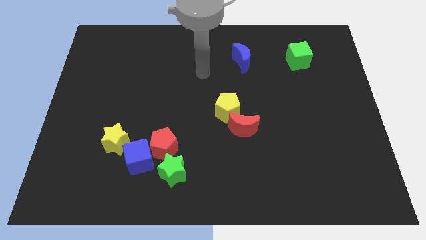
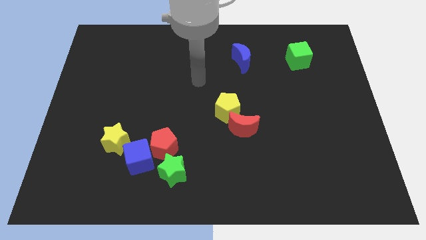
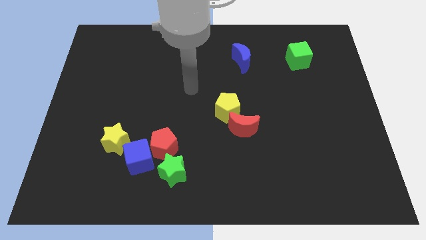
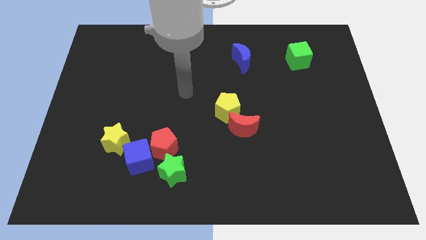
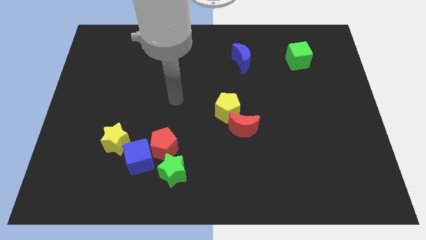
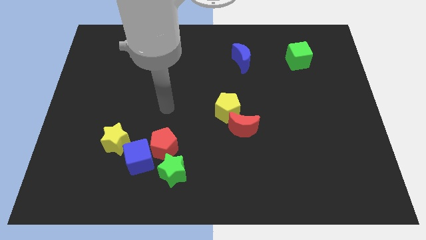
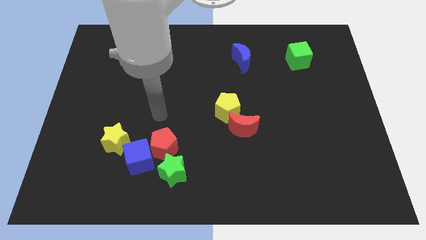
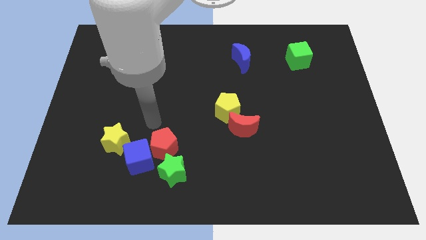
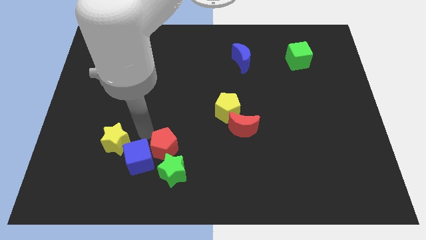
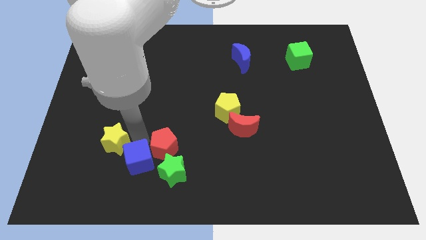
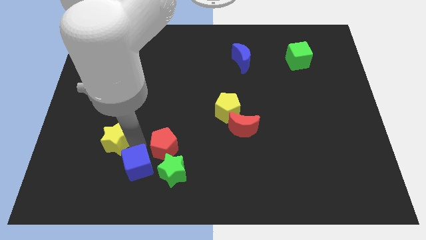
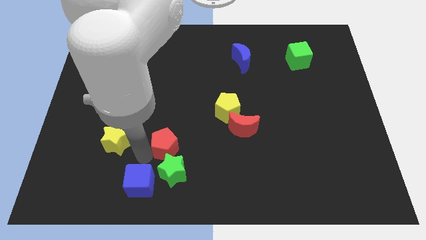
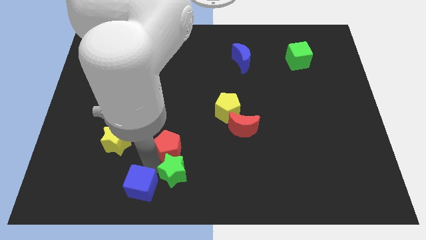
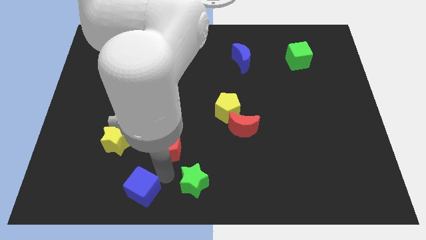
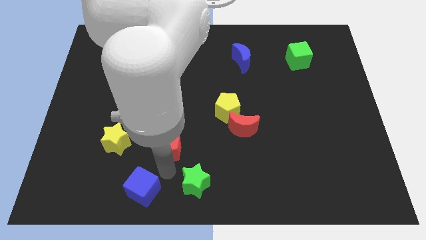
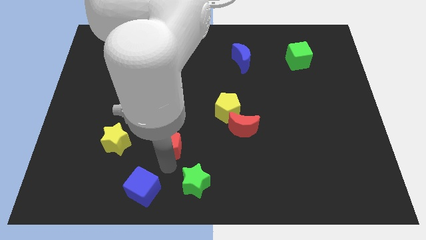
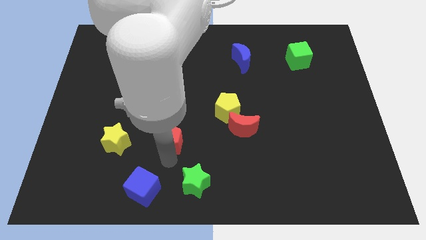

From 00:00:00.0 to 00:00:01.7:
separate the red pentagon from the blue cube and green star

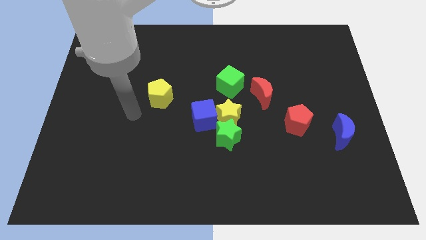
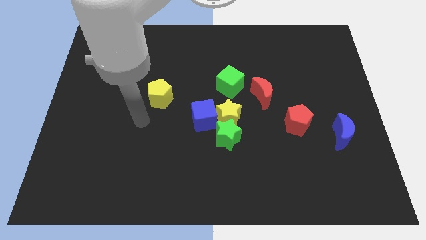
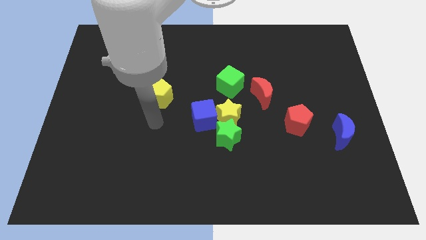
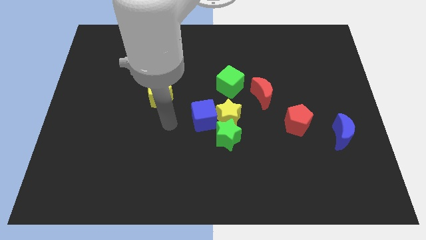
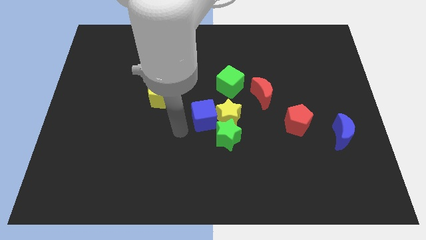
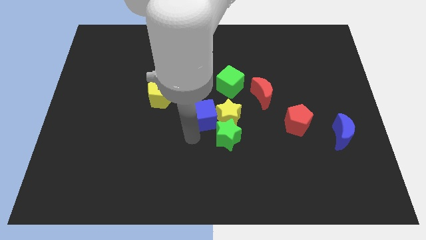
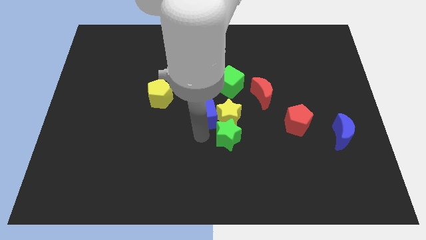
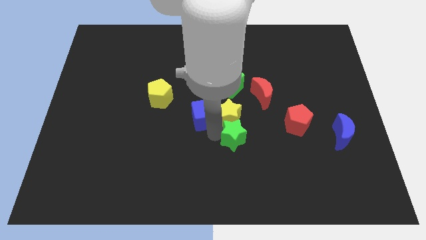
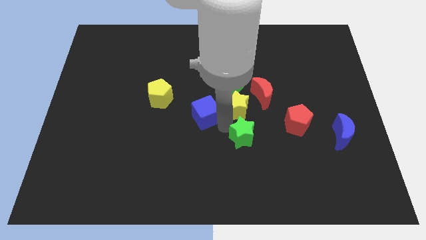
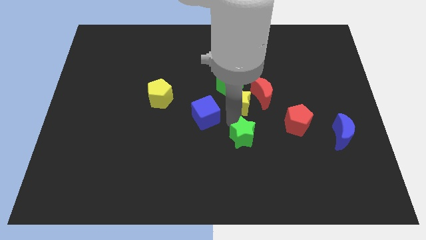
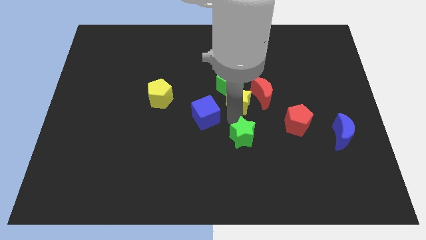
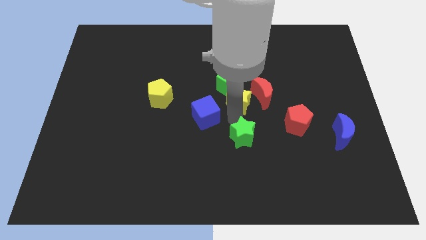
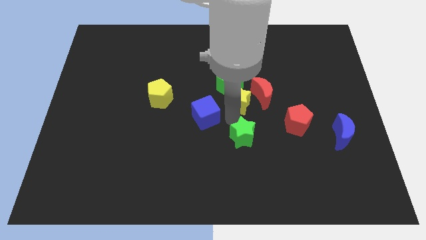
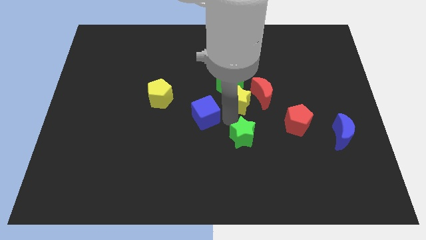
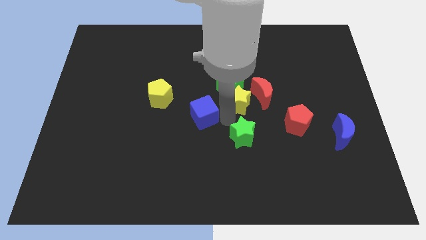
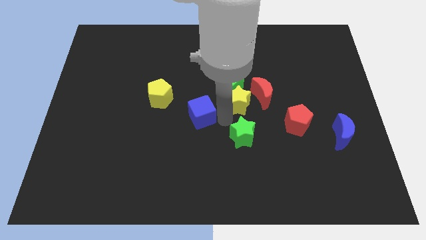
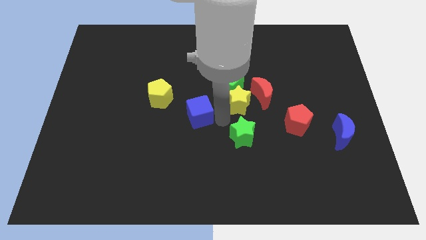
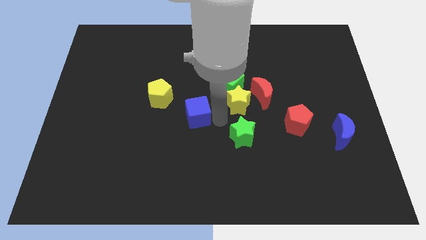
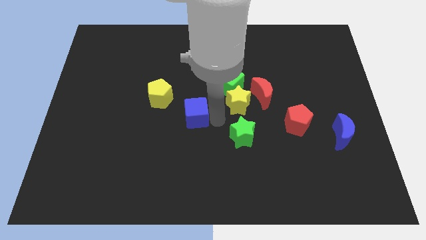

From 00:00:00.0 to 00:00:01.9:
separate the blue cube from the yellow star and green star

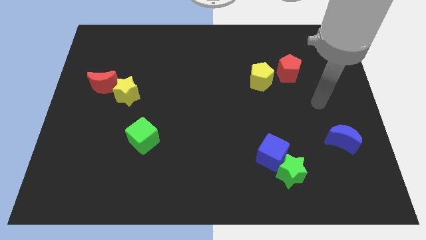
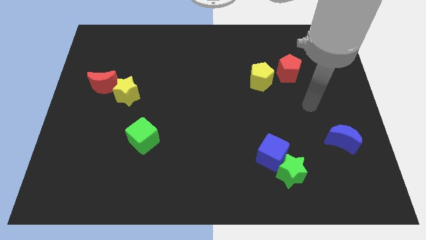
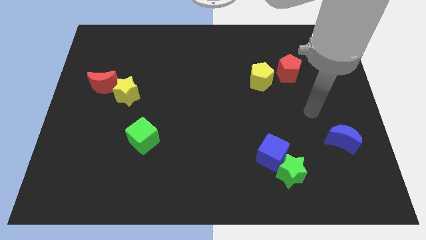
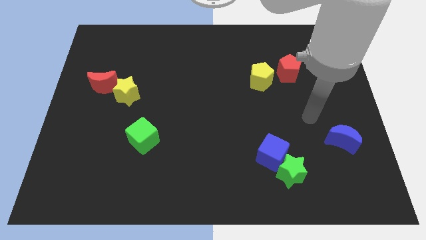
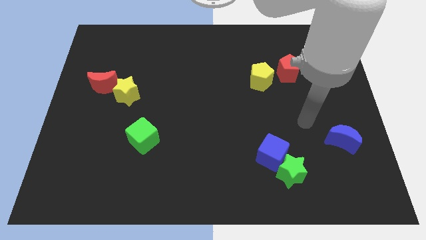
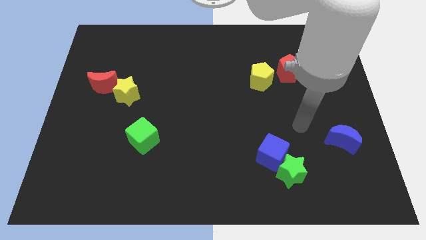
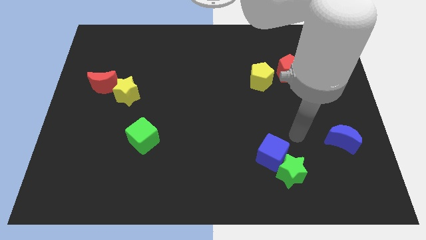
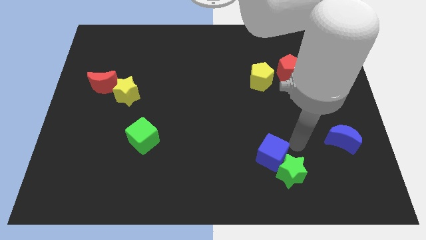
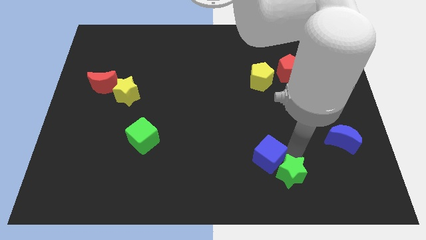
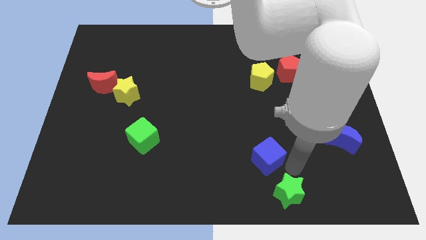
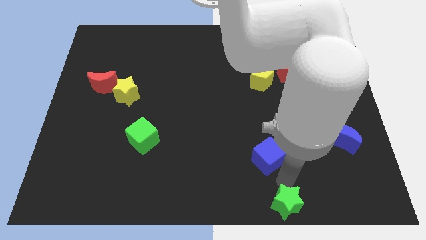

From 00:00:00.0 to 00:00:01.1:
pull the blue cube apart from the green star

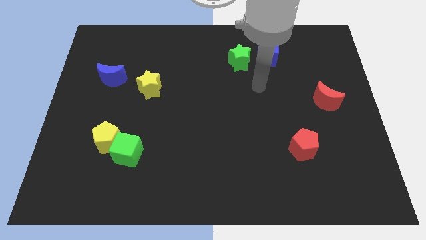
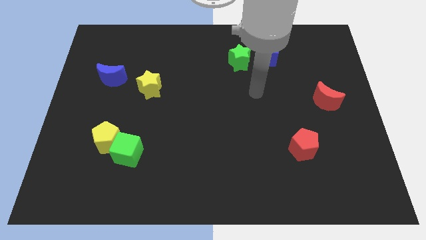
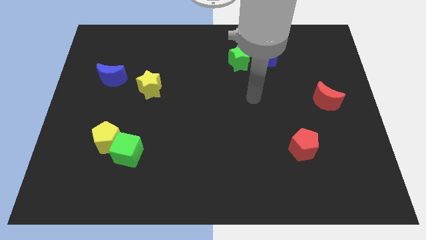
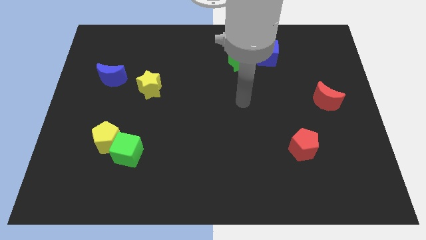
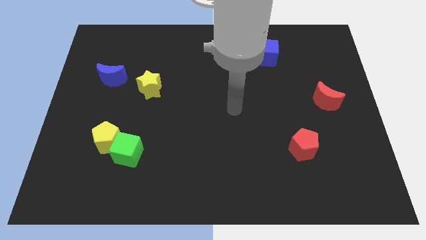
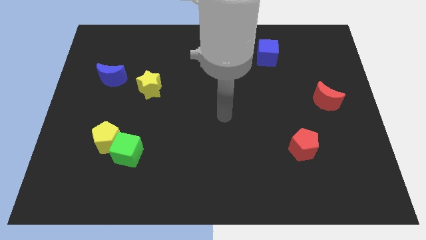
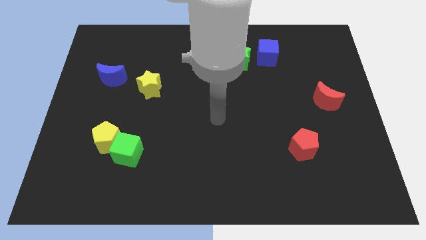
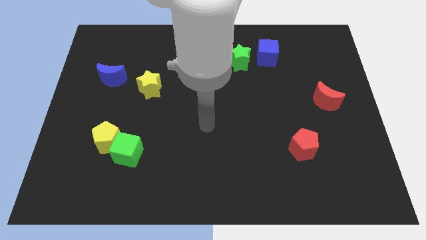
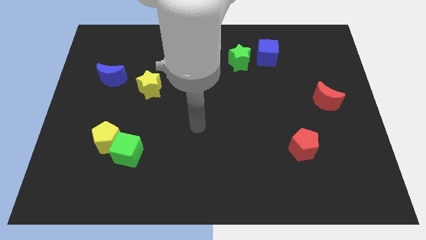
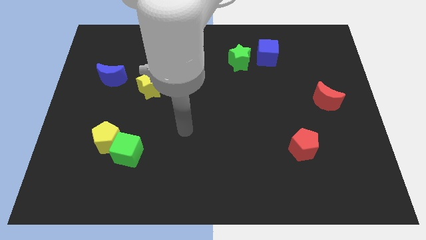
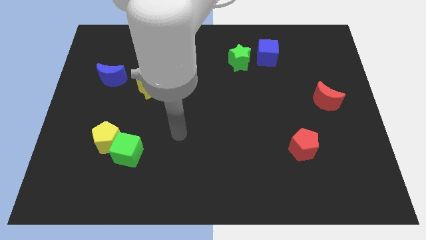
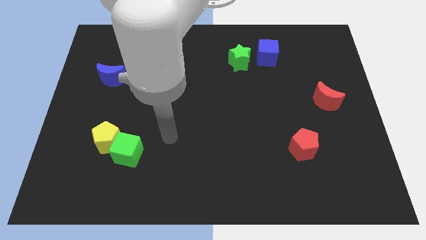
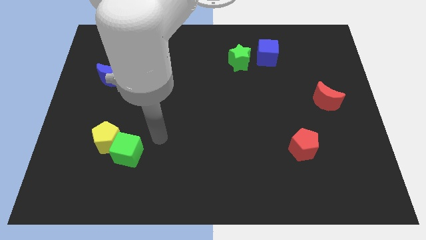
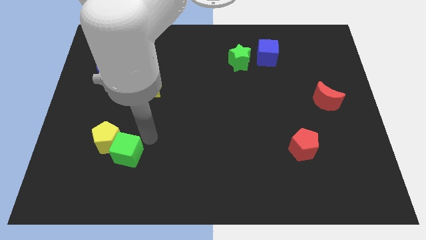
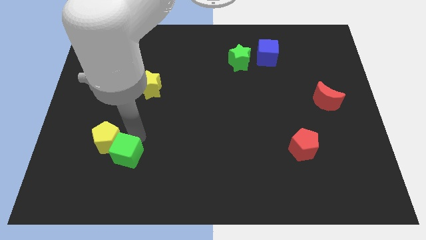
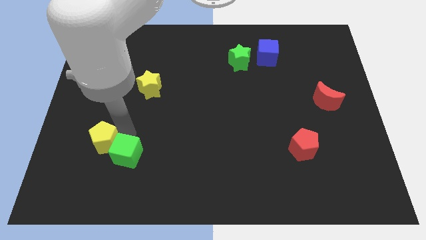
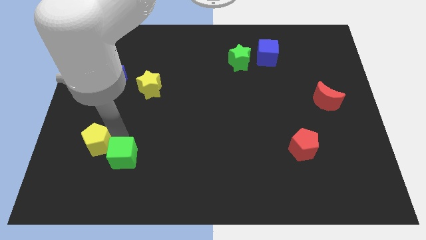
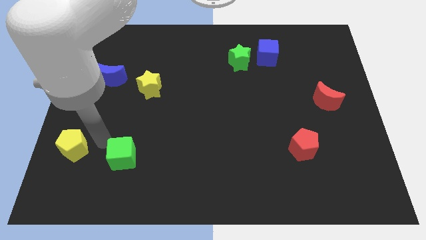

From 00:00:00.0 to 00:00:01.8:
pull the green cube apart from the yellow pentagon

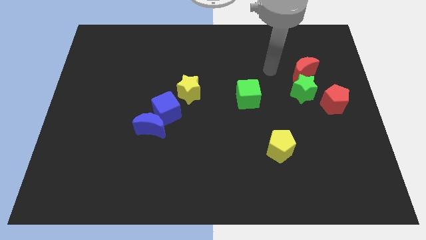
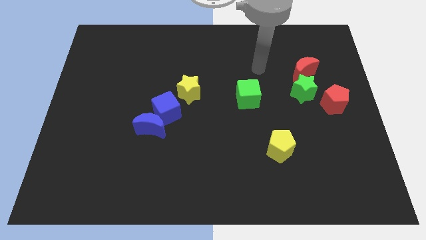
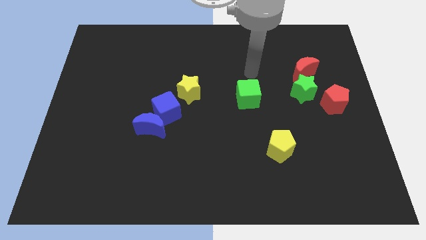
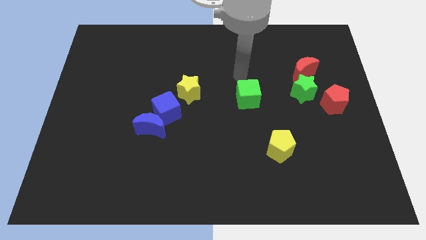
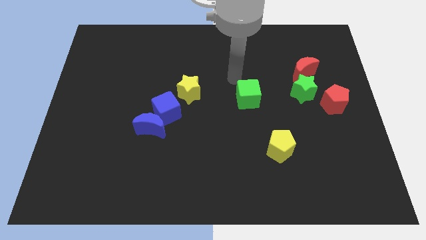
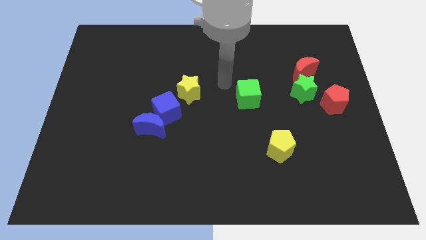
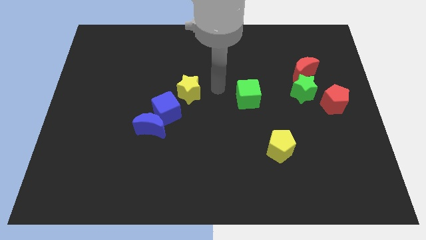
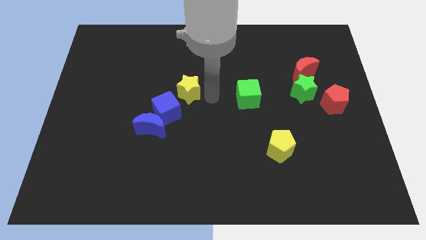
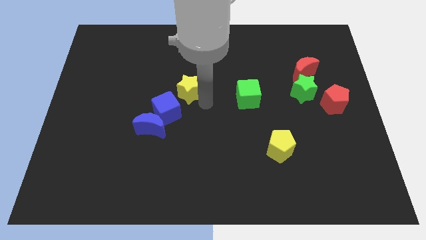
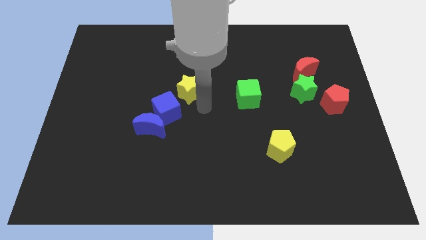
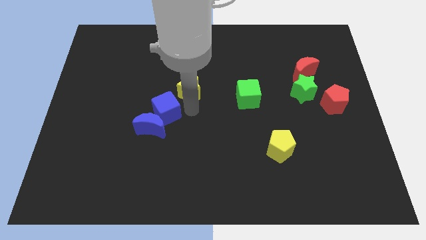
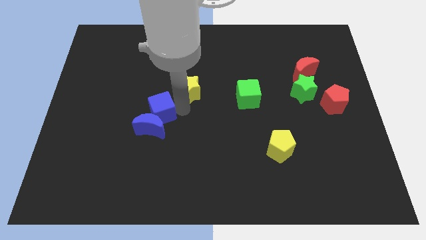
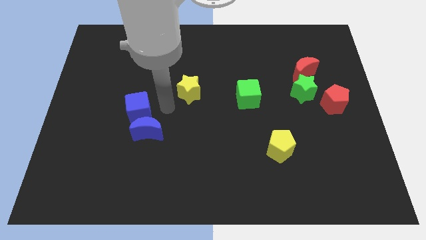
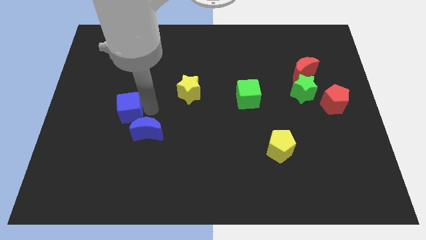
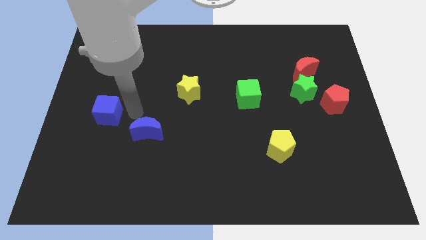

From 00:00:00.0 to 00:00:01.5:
move the blue moon away from the blue cube

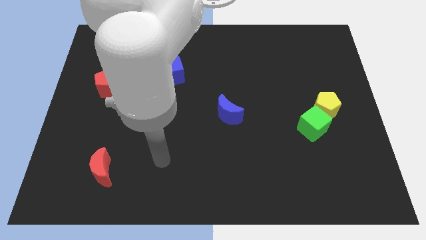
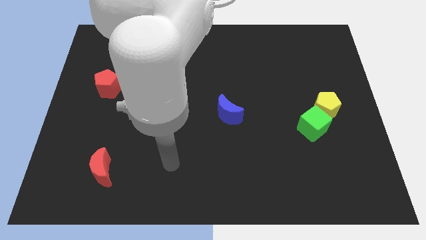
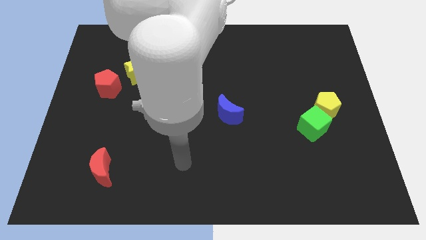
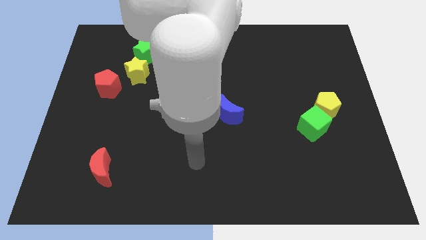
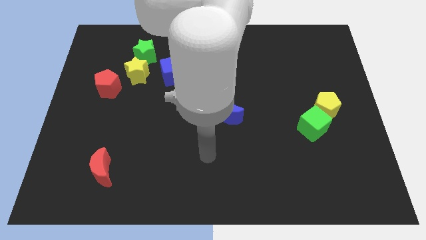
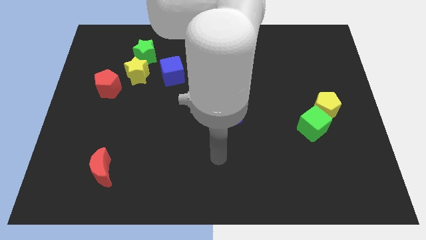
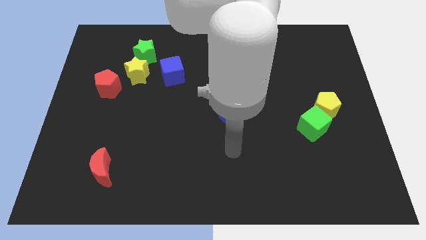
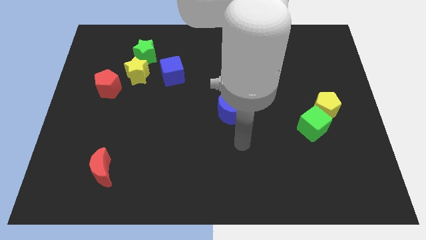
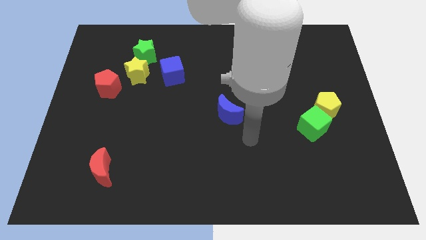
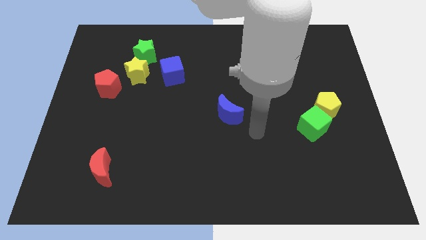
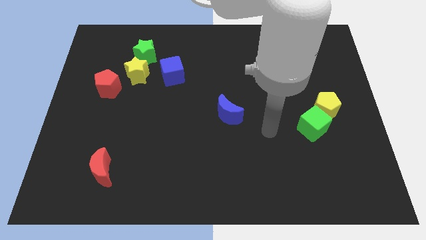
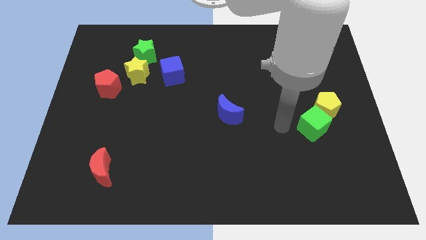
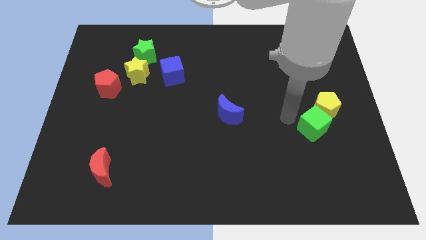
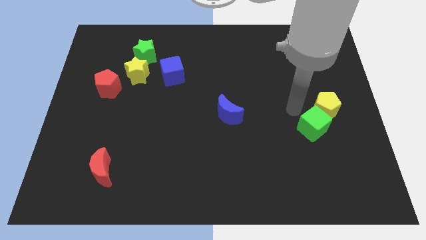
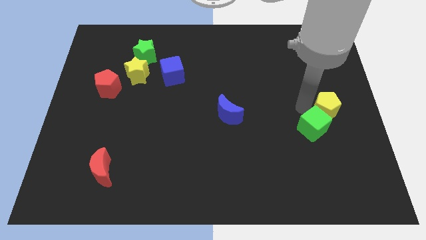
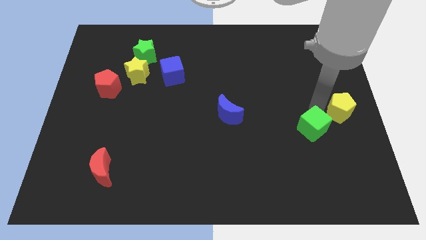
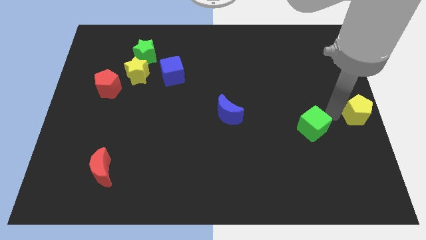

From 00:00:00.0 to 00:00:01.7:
move the green cube away from the yellow pentagon
